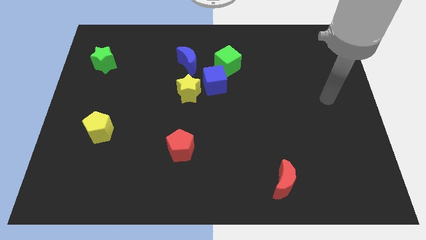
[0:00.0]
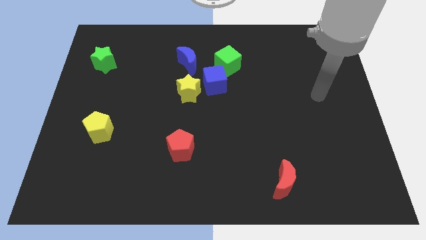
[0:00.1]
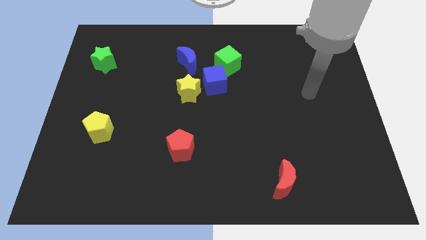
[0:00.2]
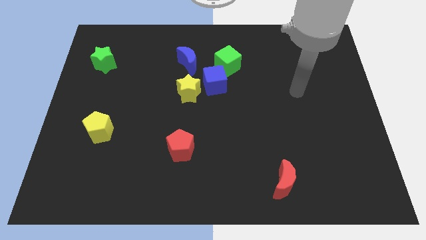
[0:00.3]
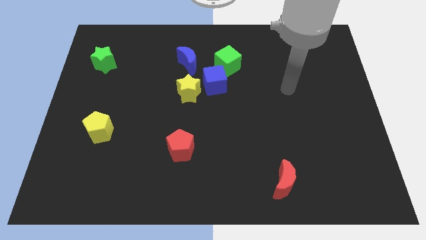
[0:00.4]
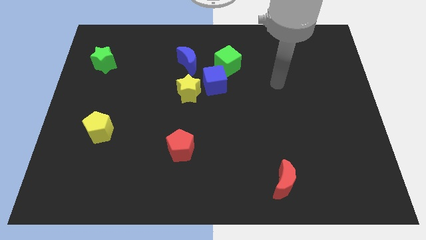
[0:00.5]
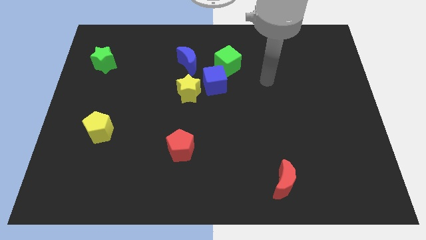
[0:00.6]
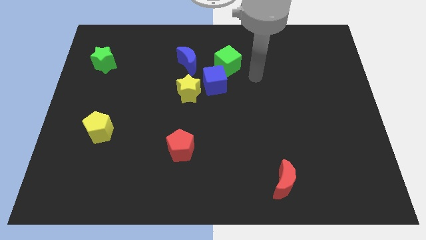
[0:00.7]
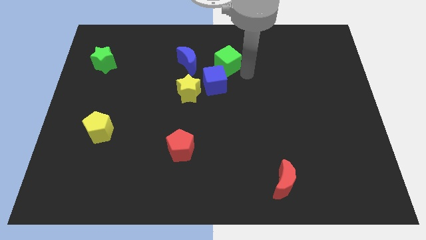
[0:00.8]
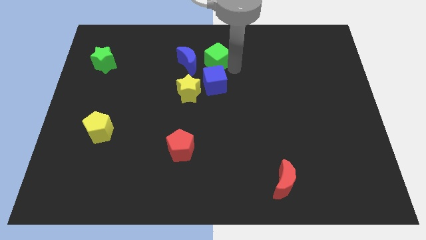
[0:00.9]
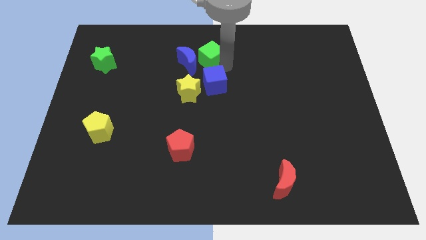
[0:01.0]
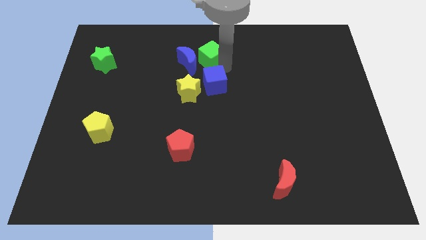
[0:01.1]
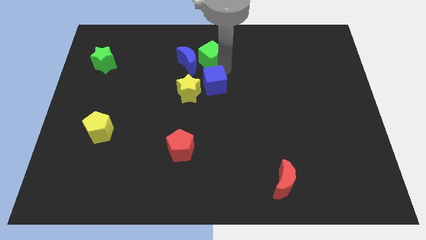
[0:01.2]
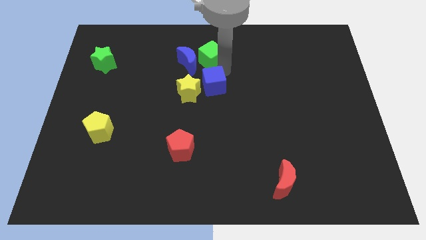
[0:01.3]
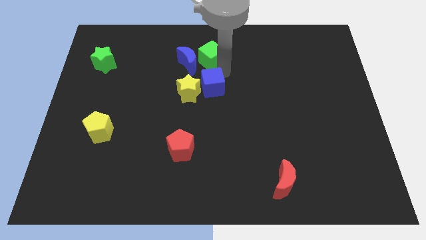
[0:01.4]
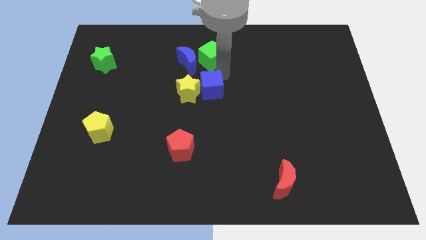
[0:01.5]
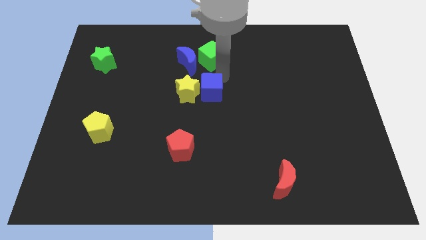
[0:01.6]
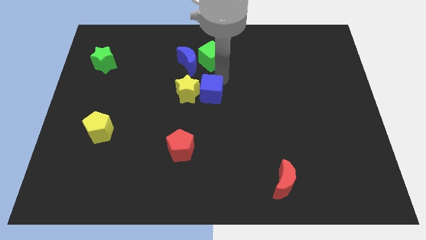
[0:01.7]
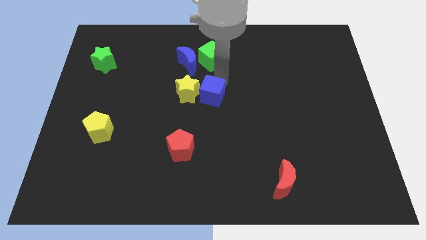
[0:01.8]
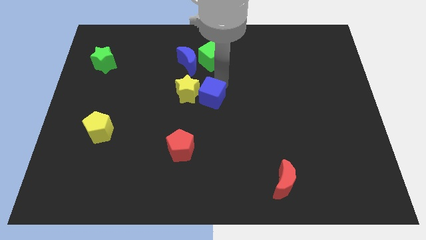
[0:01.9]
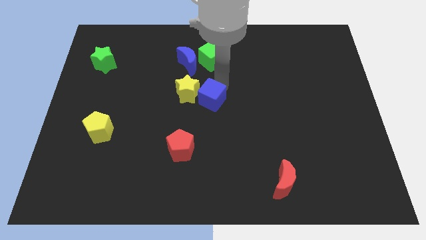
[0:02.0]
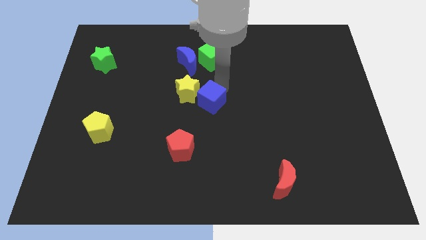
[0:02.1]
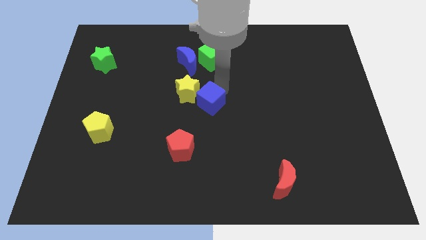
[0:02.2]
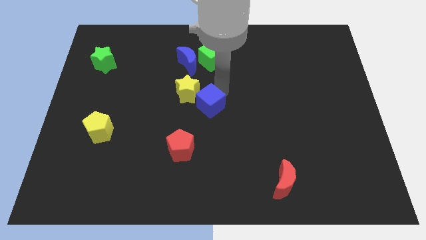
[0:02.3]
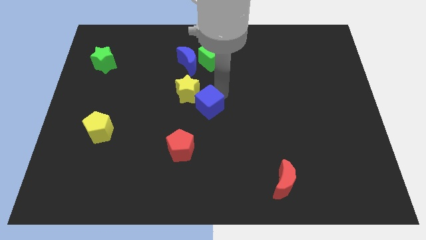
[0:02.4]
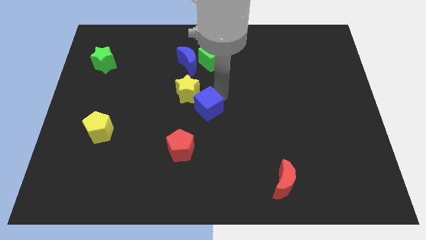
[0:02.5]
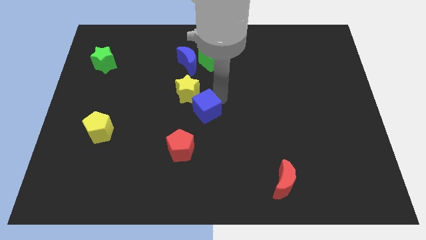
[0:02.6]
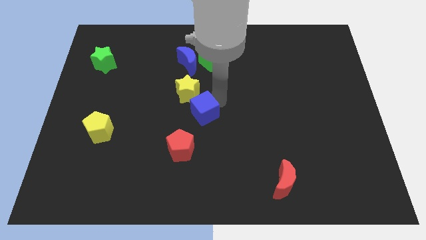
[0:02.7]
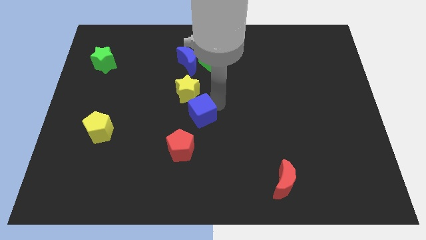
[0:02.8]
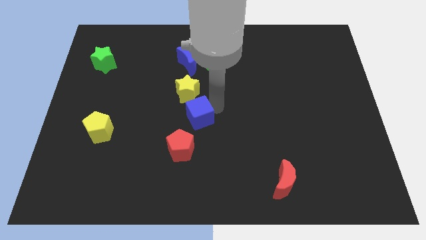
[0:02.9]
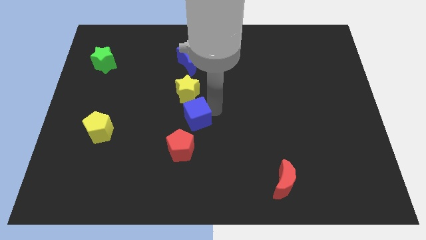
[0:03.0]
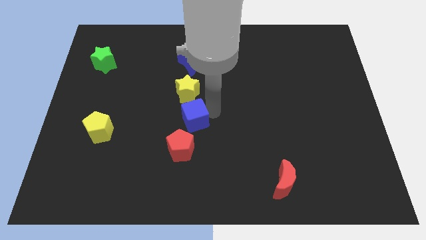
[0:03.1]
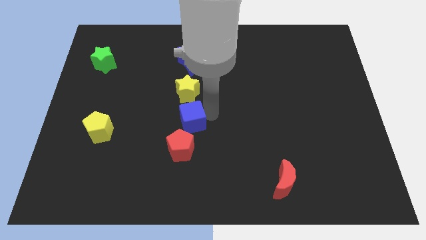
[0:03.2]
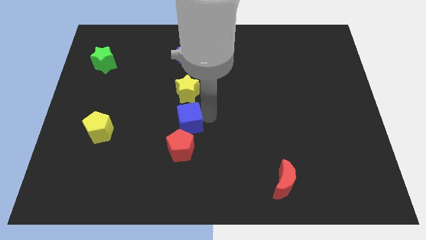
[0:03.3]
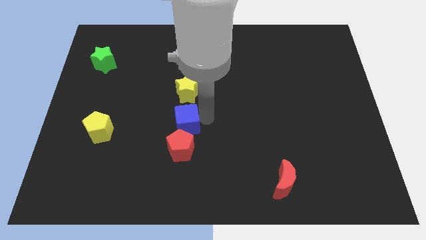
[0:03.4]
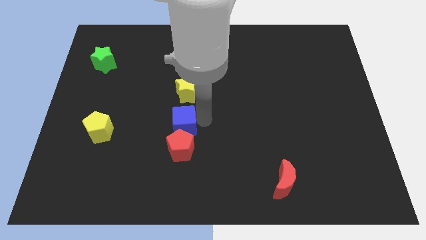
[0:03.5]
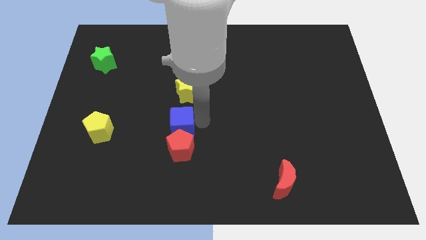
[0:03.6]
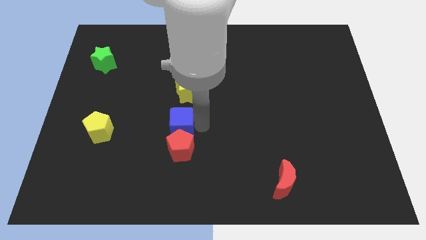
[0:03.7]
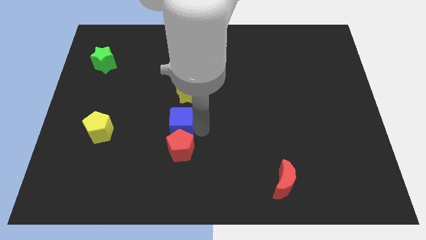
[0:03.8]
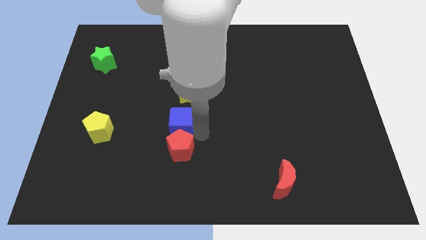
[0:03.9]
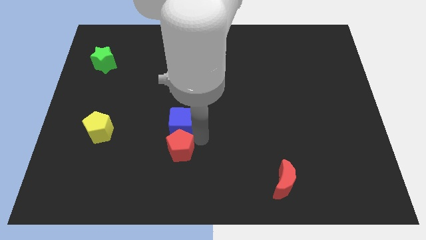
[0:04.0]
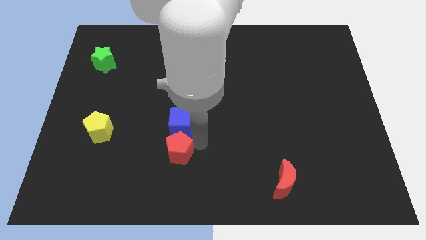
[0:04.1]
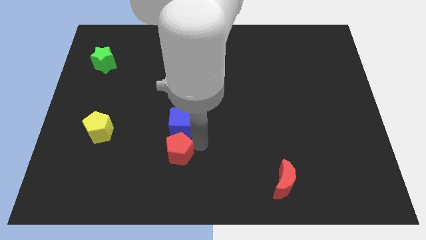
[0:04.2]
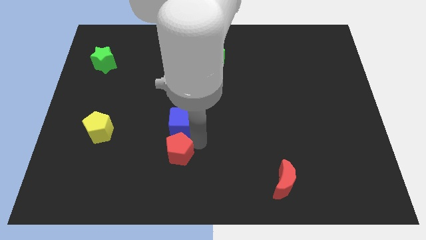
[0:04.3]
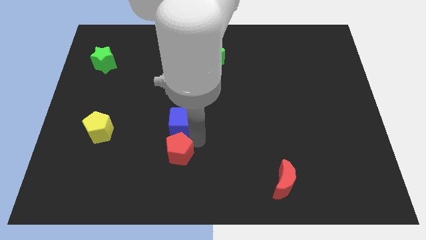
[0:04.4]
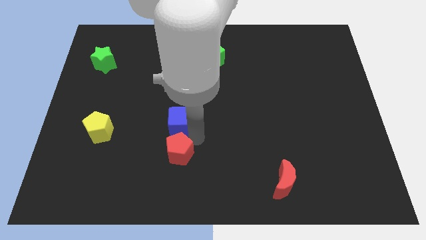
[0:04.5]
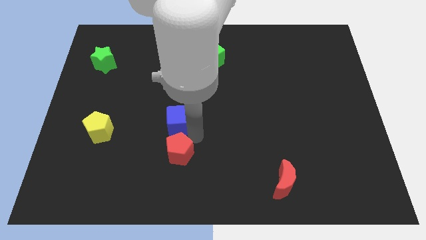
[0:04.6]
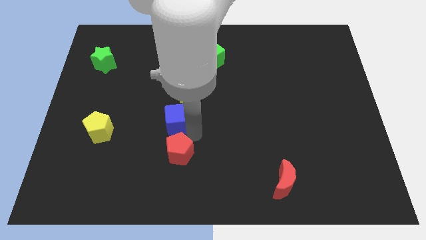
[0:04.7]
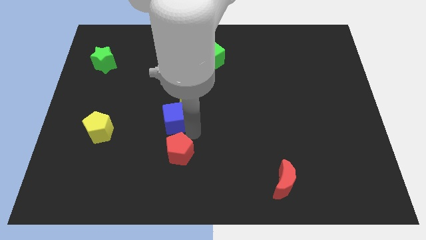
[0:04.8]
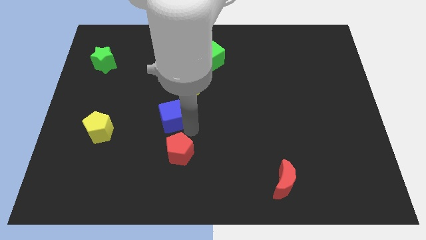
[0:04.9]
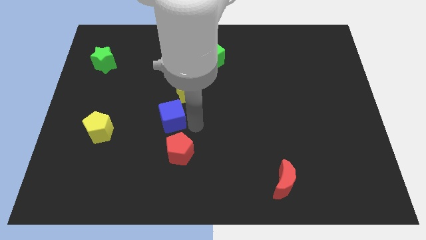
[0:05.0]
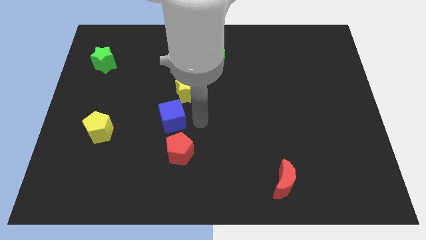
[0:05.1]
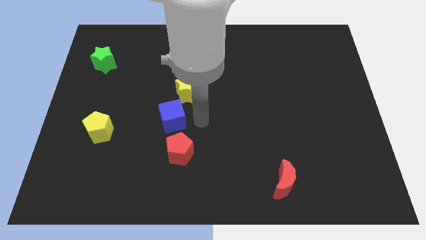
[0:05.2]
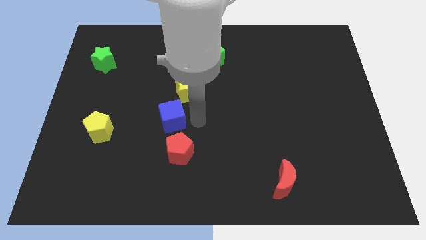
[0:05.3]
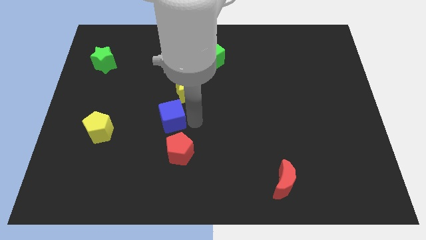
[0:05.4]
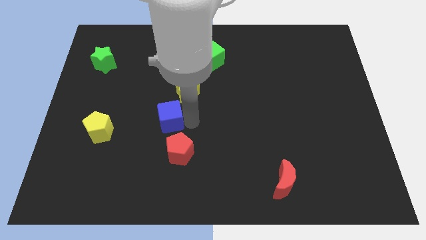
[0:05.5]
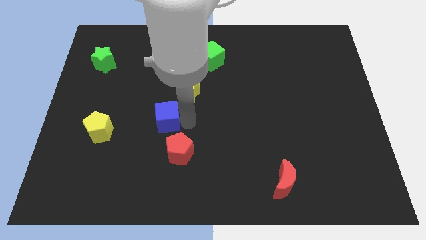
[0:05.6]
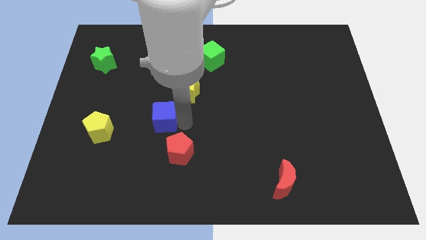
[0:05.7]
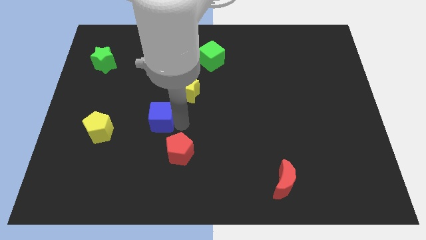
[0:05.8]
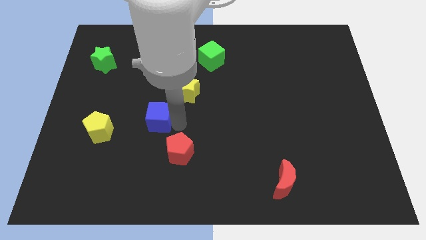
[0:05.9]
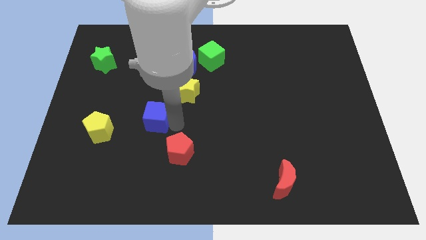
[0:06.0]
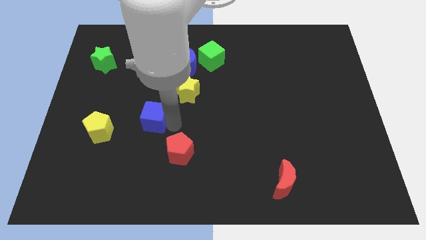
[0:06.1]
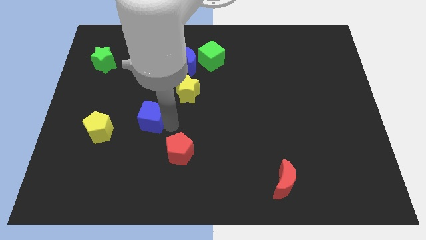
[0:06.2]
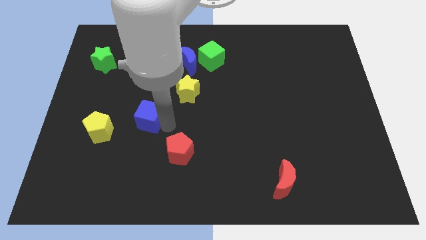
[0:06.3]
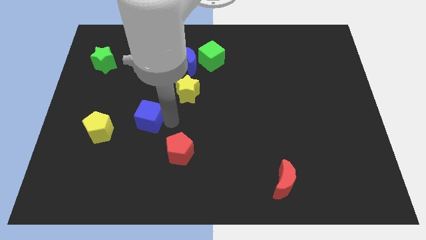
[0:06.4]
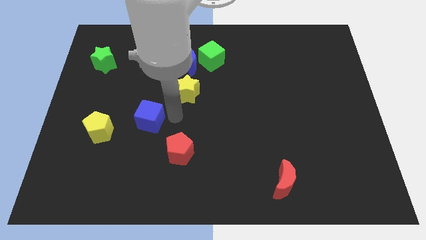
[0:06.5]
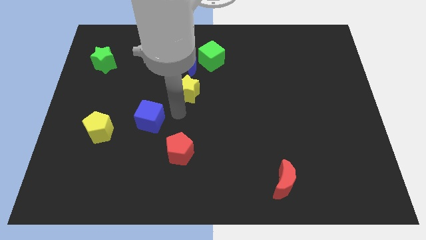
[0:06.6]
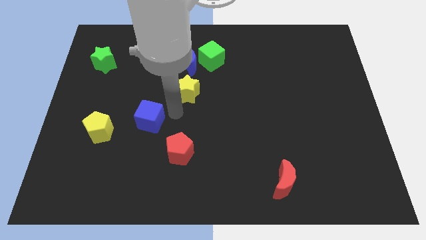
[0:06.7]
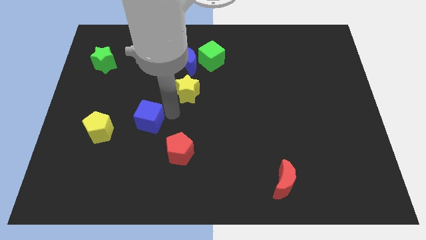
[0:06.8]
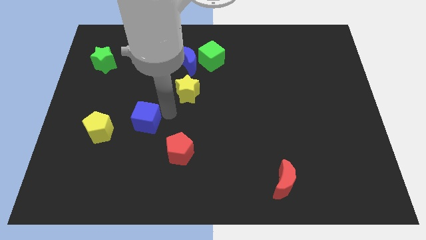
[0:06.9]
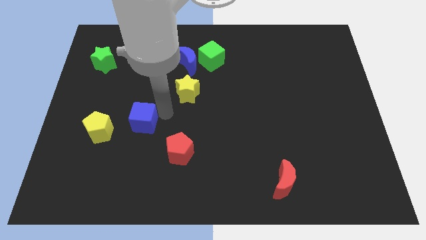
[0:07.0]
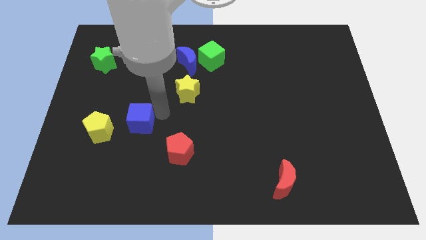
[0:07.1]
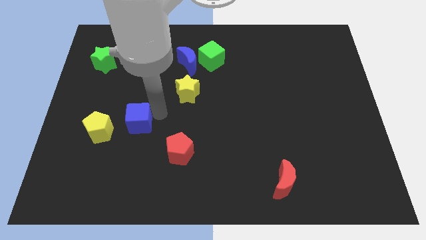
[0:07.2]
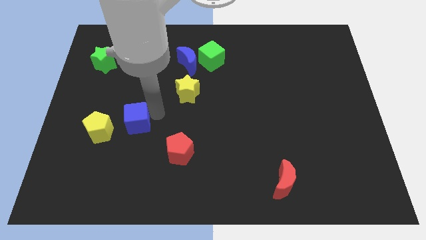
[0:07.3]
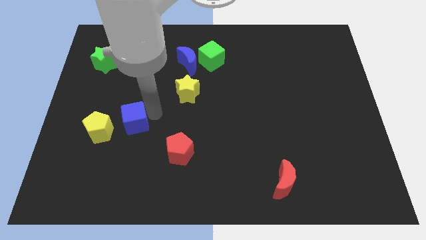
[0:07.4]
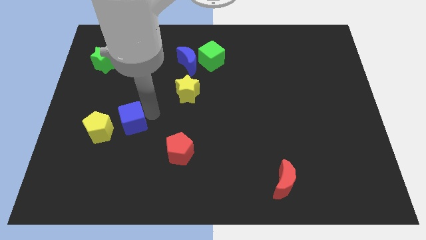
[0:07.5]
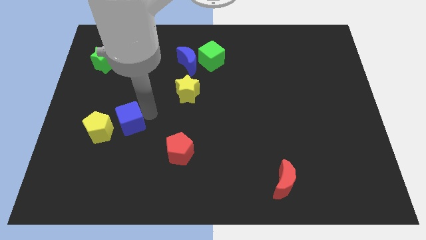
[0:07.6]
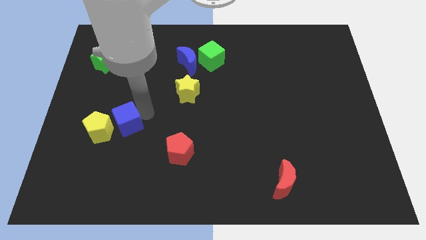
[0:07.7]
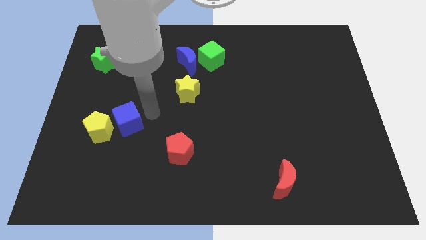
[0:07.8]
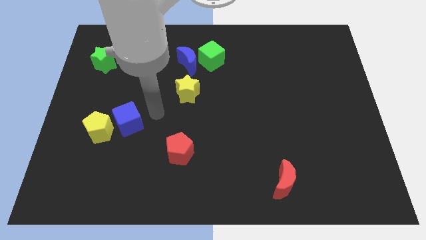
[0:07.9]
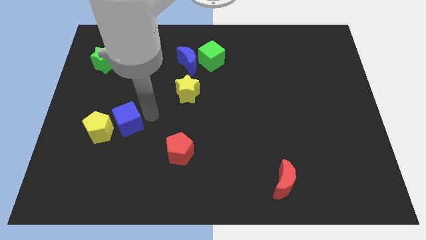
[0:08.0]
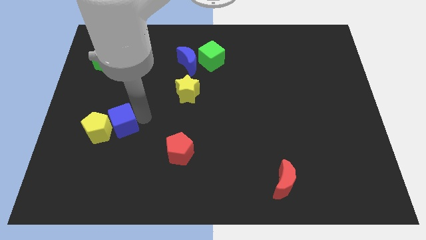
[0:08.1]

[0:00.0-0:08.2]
slide the blue cube towards the yellow pentagon
